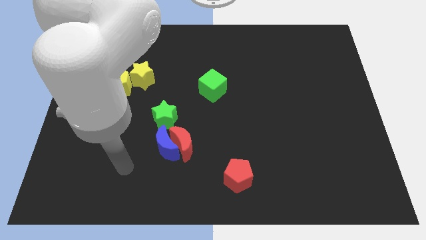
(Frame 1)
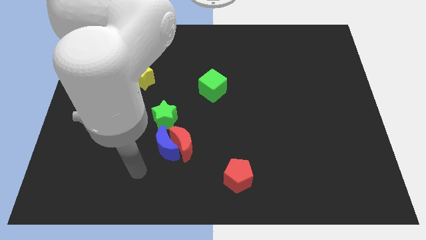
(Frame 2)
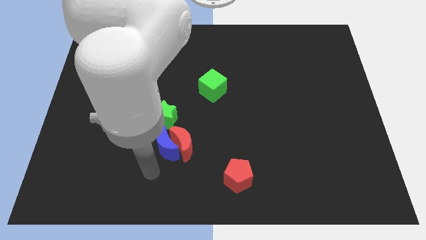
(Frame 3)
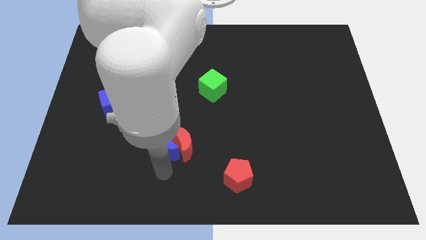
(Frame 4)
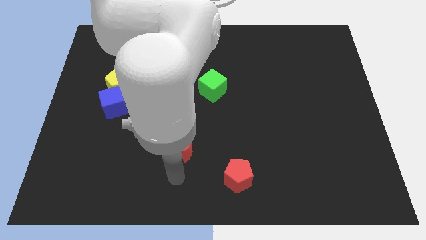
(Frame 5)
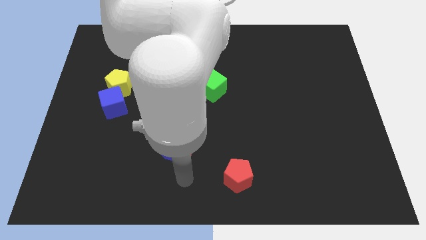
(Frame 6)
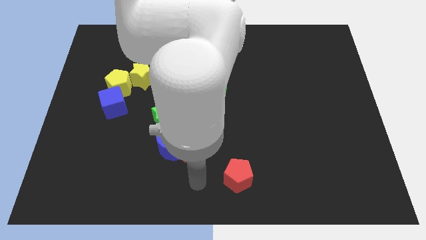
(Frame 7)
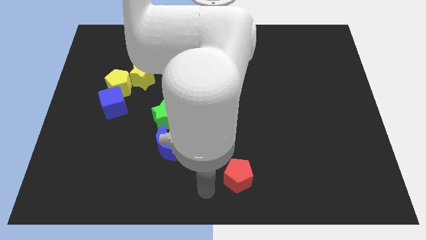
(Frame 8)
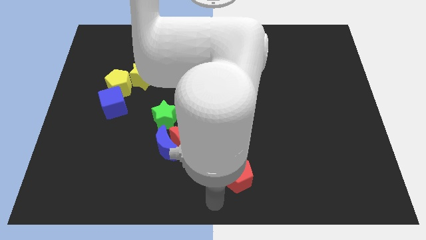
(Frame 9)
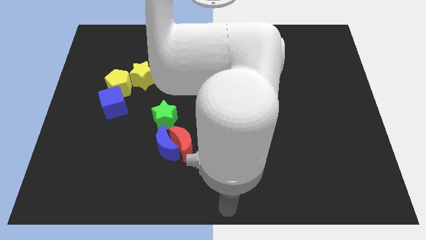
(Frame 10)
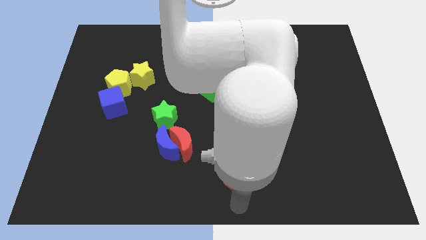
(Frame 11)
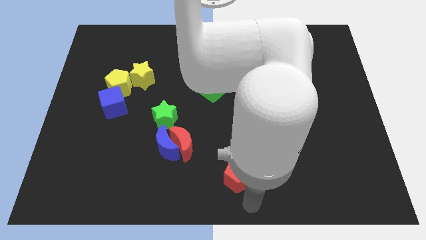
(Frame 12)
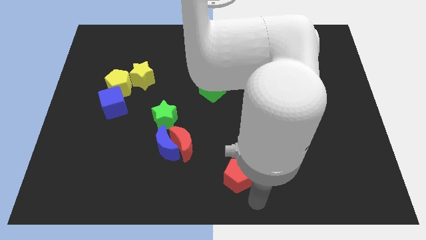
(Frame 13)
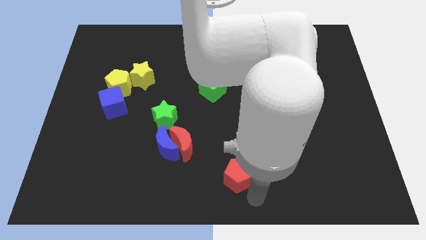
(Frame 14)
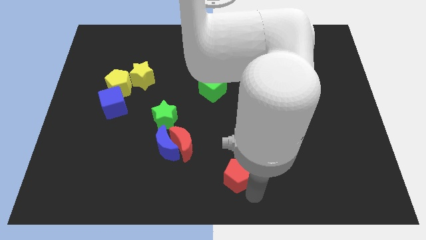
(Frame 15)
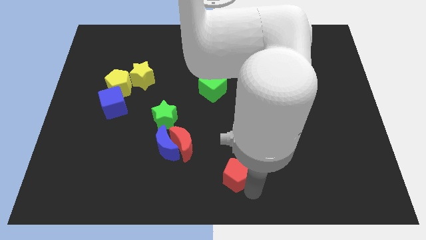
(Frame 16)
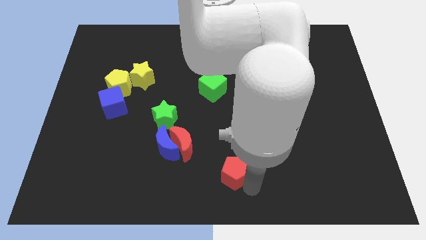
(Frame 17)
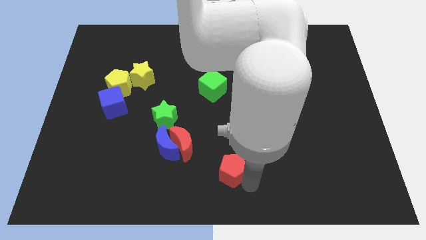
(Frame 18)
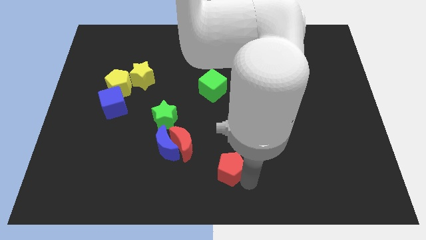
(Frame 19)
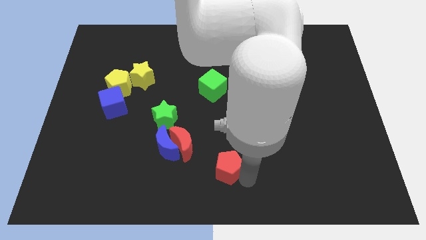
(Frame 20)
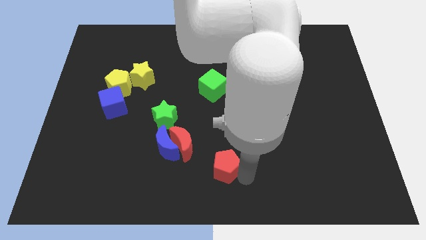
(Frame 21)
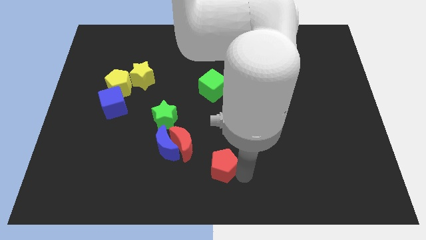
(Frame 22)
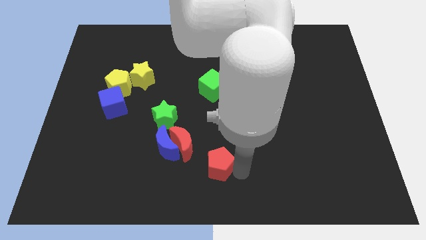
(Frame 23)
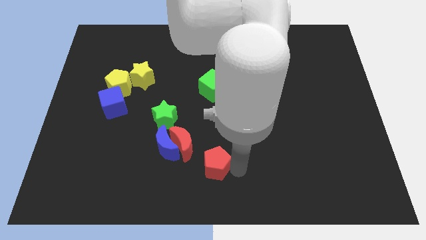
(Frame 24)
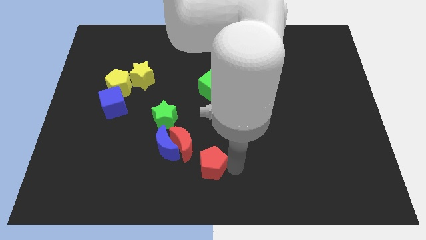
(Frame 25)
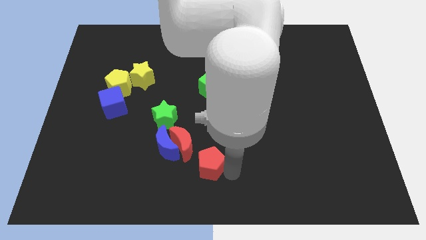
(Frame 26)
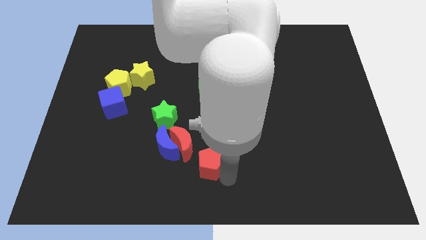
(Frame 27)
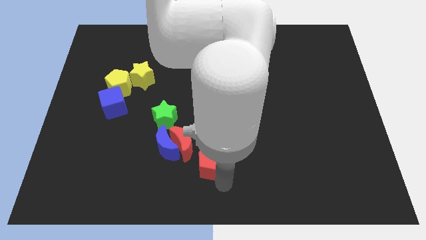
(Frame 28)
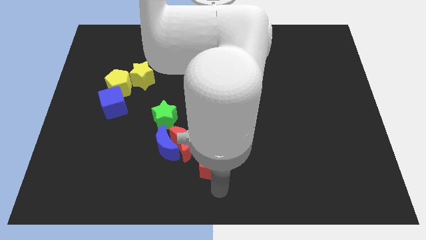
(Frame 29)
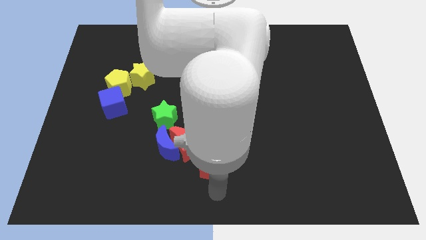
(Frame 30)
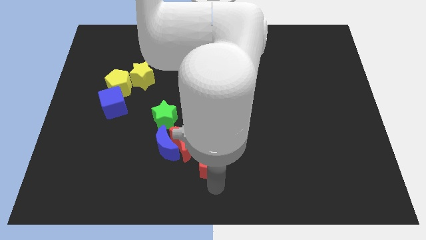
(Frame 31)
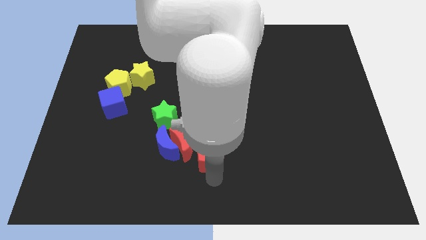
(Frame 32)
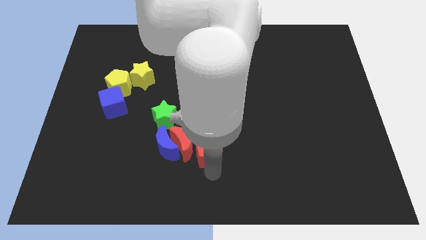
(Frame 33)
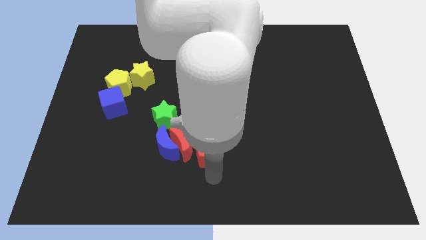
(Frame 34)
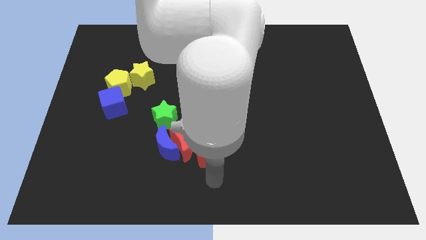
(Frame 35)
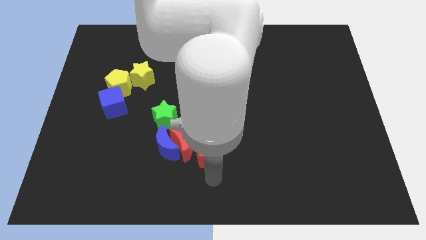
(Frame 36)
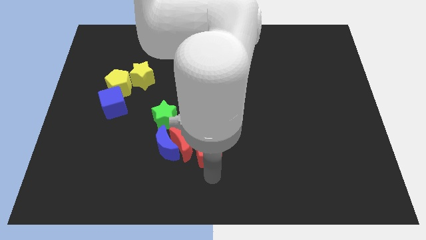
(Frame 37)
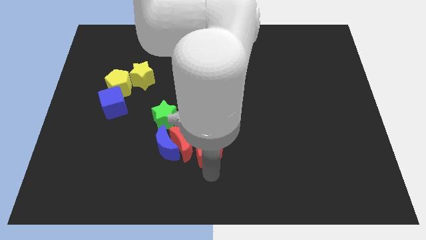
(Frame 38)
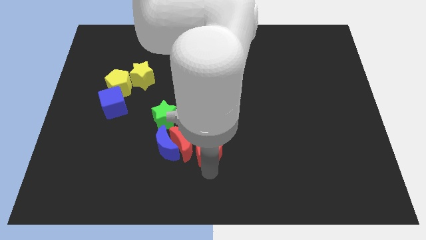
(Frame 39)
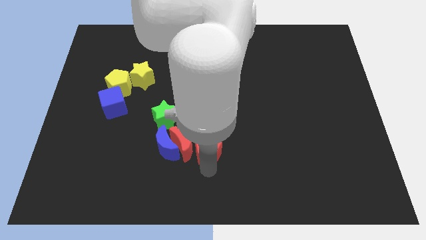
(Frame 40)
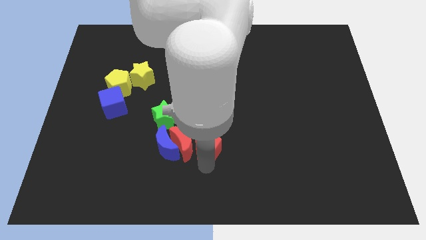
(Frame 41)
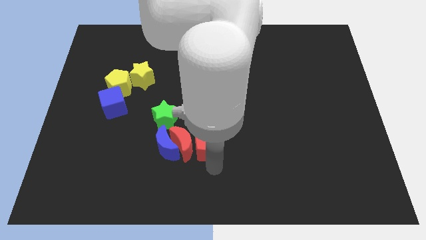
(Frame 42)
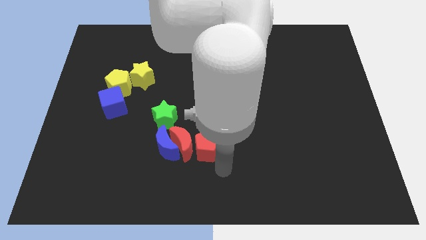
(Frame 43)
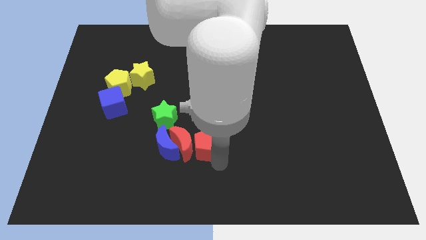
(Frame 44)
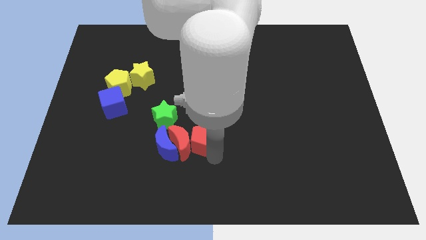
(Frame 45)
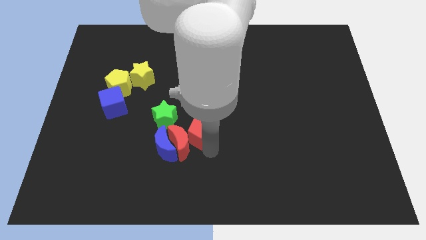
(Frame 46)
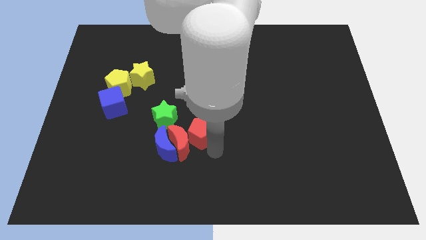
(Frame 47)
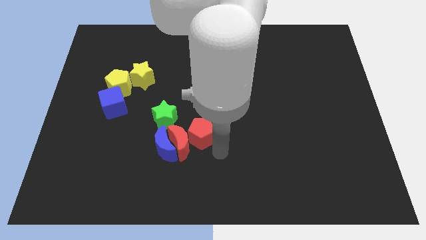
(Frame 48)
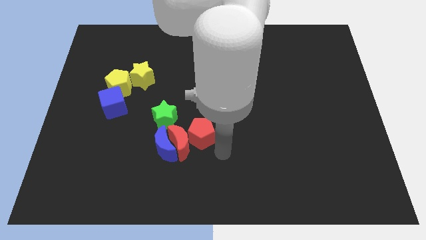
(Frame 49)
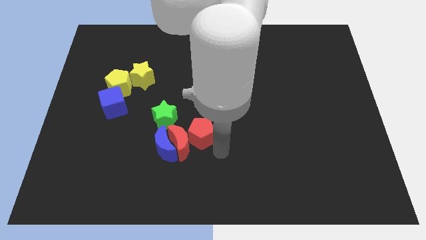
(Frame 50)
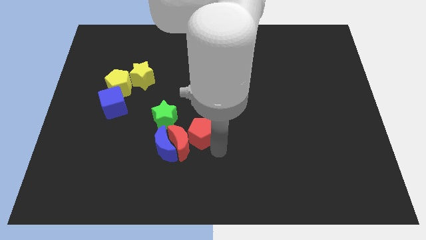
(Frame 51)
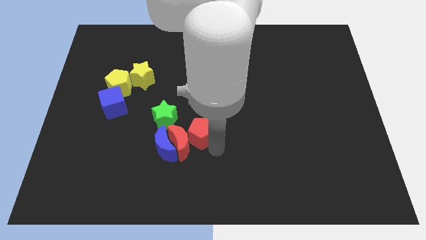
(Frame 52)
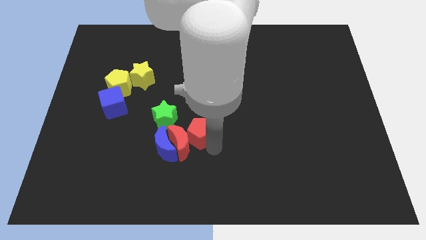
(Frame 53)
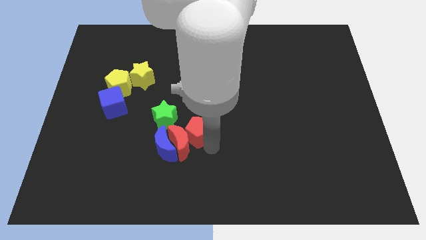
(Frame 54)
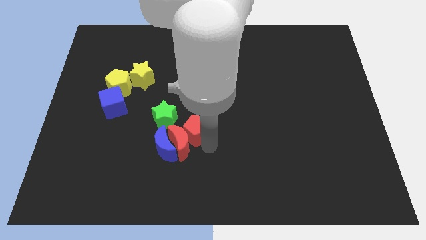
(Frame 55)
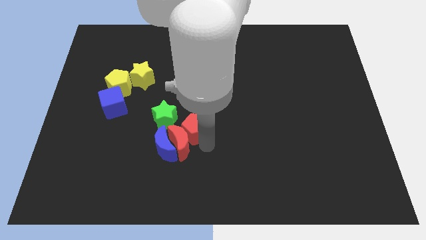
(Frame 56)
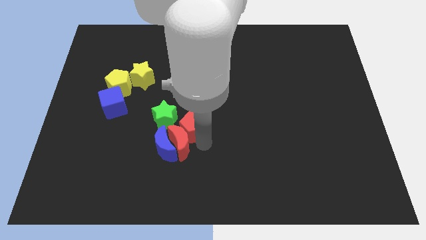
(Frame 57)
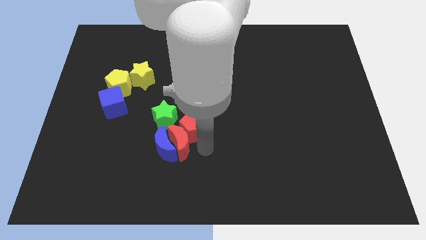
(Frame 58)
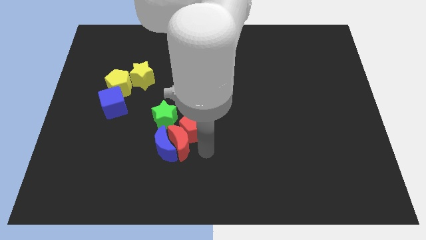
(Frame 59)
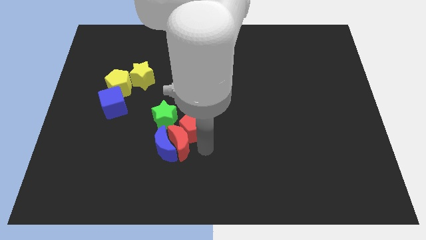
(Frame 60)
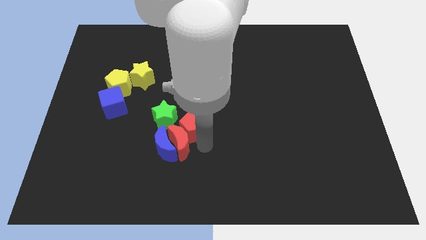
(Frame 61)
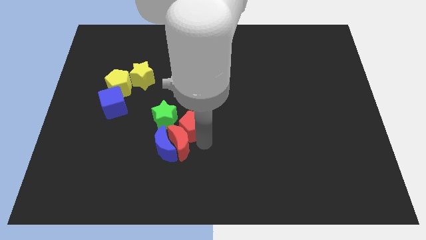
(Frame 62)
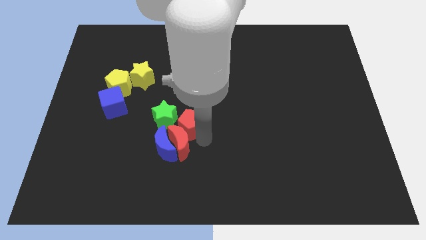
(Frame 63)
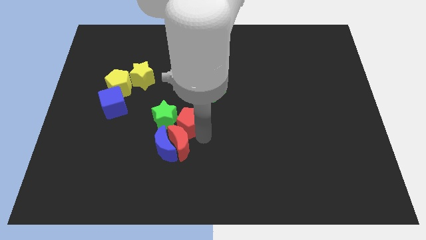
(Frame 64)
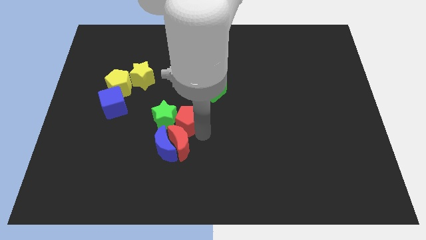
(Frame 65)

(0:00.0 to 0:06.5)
put the red pentagon to the top side of the blue moon

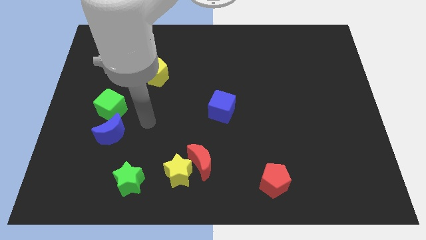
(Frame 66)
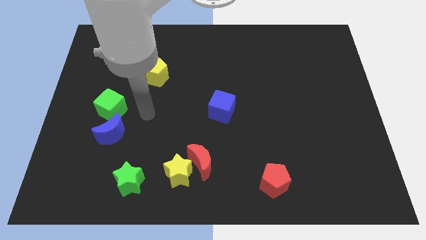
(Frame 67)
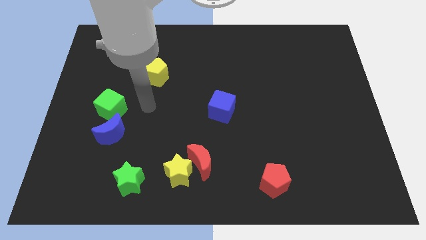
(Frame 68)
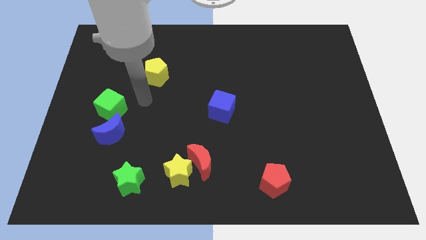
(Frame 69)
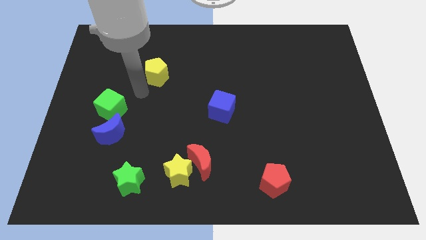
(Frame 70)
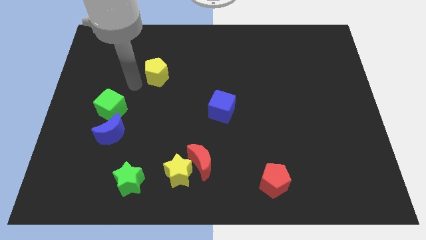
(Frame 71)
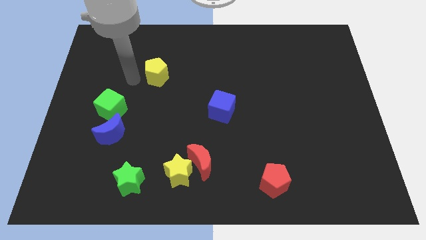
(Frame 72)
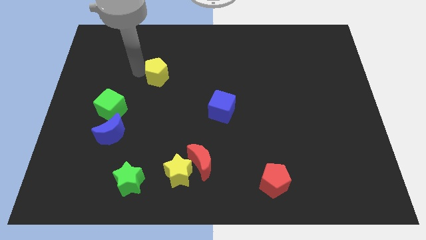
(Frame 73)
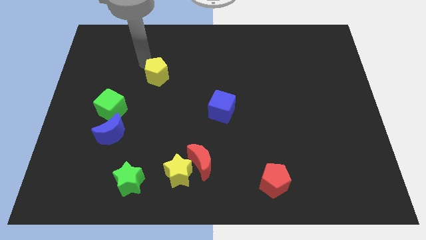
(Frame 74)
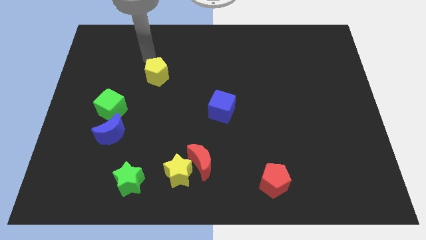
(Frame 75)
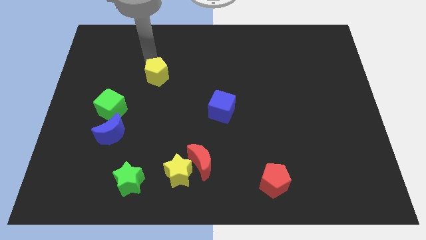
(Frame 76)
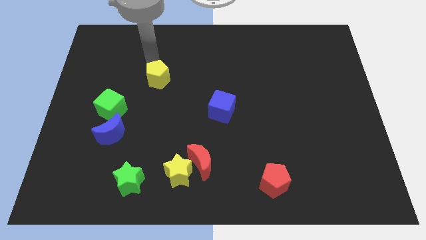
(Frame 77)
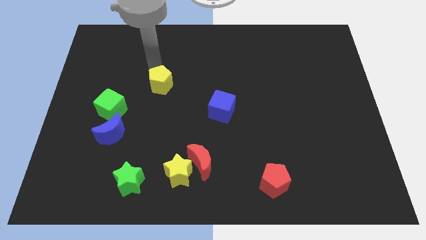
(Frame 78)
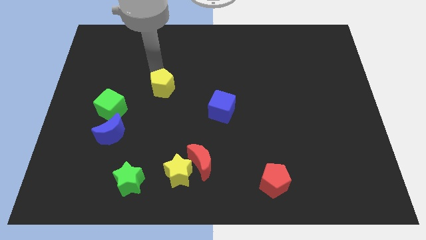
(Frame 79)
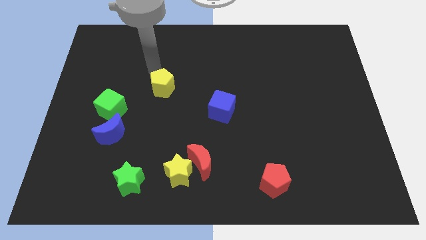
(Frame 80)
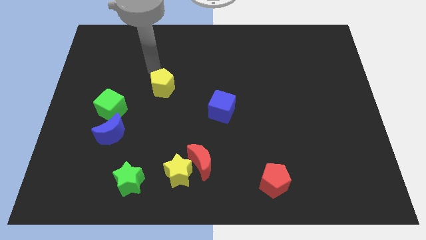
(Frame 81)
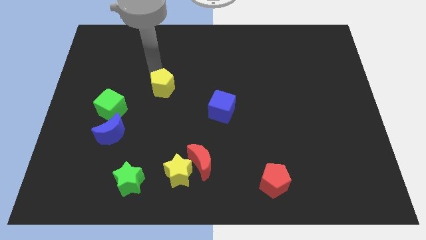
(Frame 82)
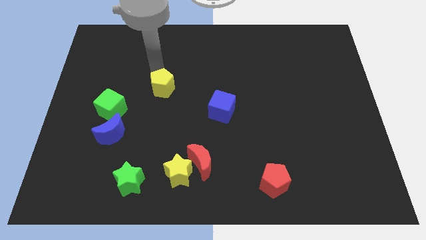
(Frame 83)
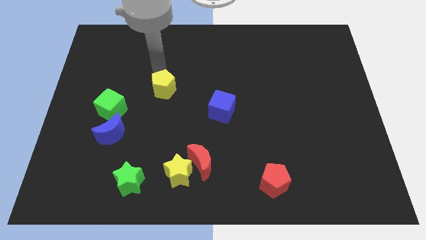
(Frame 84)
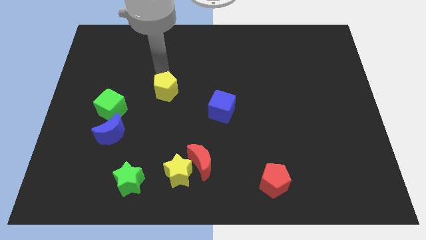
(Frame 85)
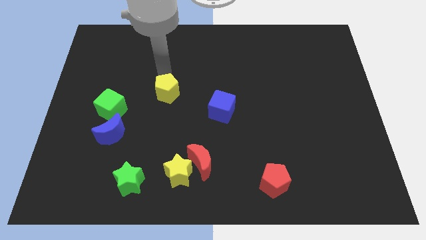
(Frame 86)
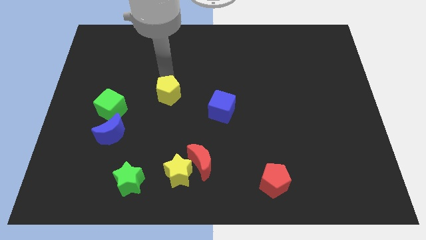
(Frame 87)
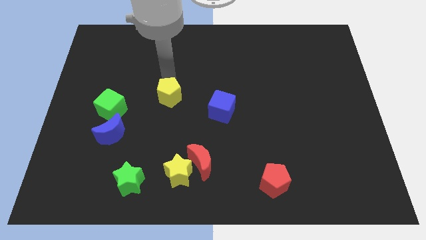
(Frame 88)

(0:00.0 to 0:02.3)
move the yellow pentagon to the left of the blue cube
